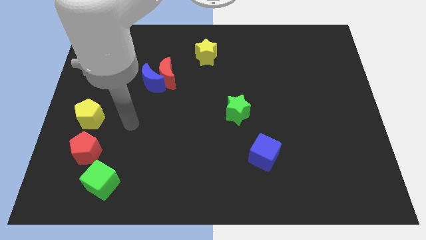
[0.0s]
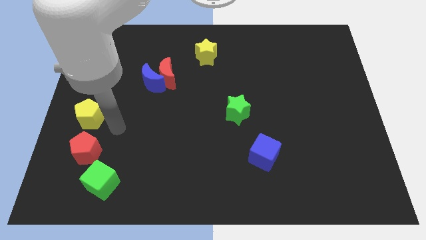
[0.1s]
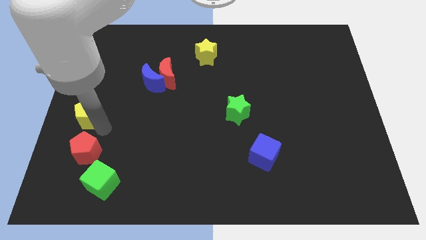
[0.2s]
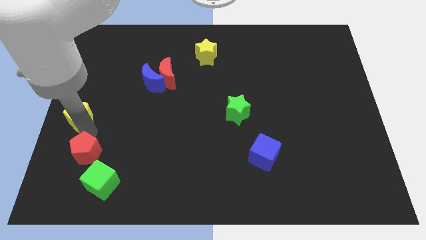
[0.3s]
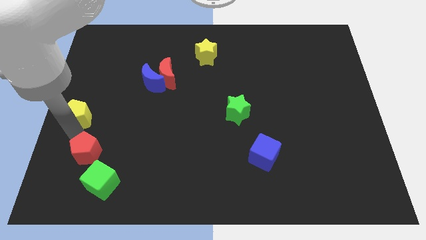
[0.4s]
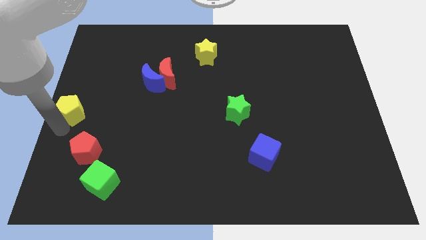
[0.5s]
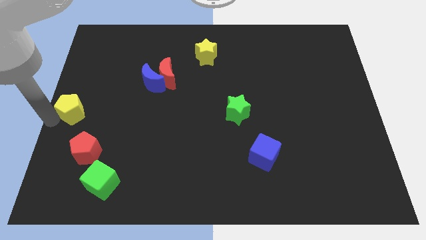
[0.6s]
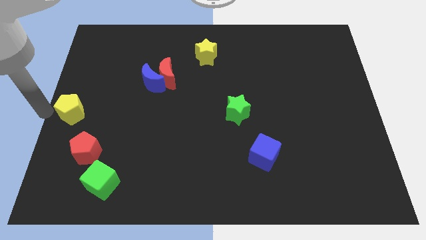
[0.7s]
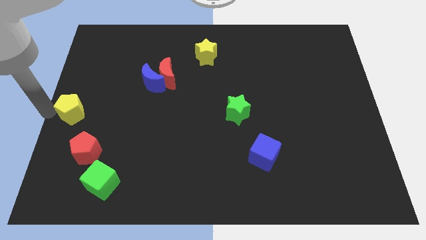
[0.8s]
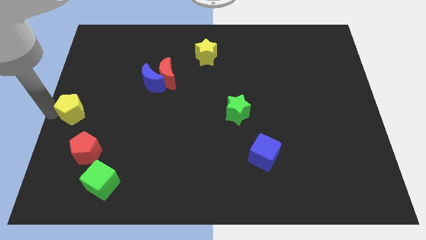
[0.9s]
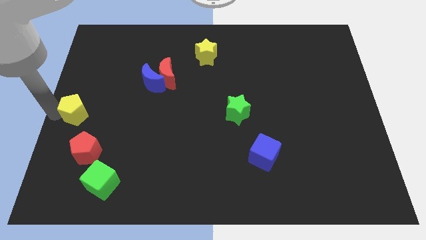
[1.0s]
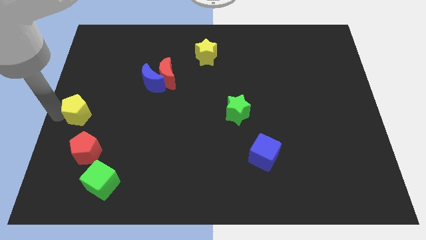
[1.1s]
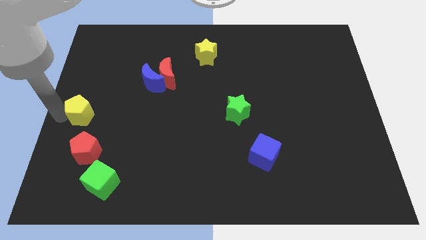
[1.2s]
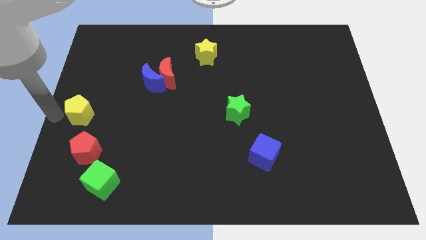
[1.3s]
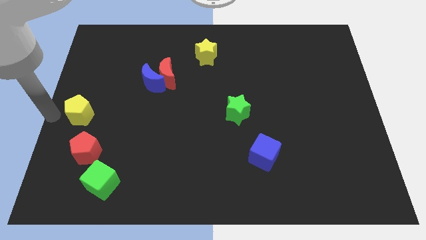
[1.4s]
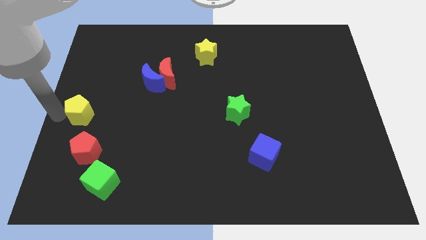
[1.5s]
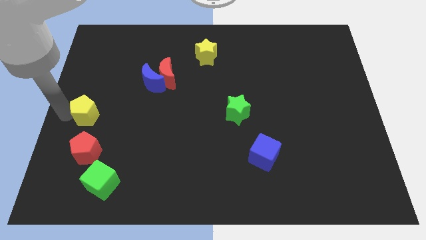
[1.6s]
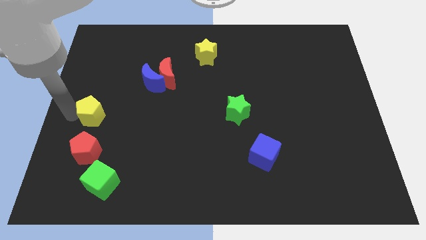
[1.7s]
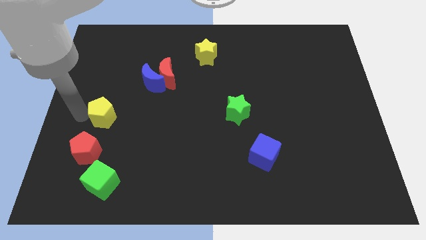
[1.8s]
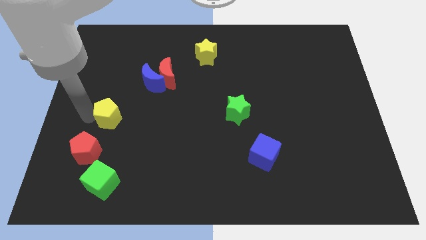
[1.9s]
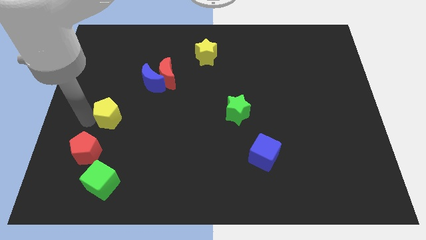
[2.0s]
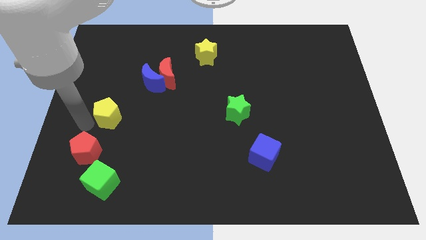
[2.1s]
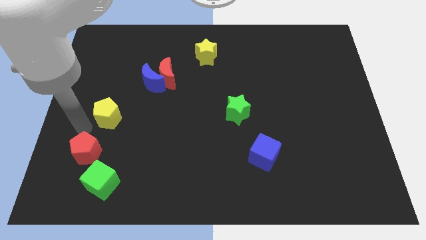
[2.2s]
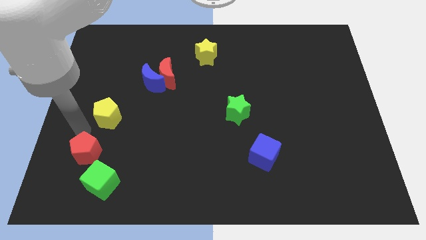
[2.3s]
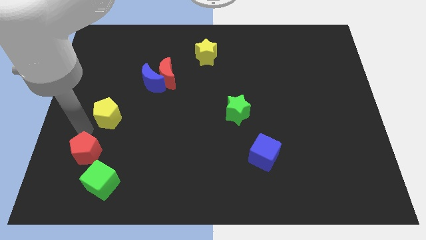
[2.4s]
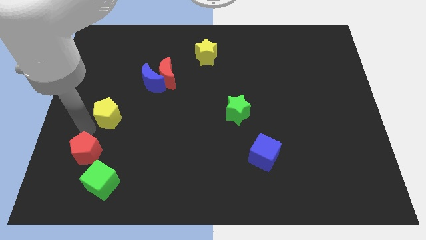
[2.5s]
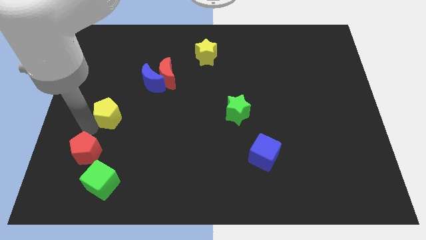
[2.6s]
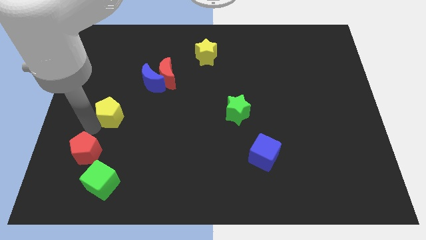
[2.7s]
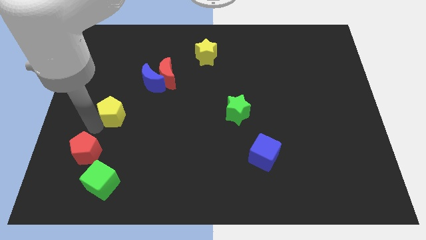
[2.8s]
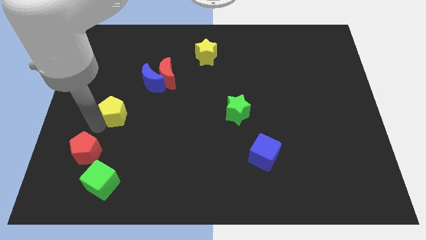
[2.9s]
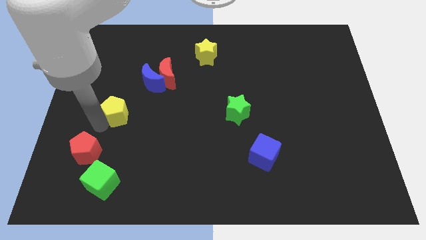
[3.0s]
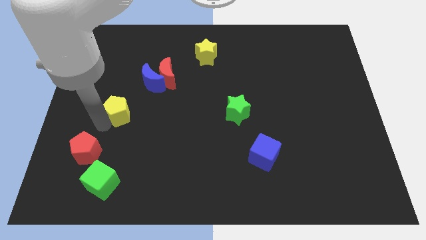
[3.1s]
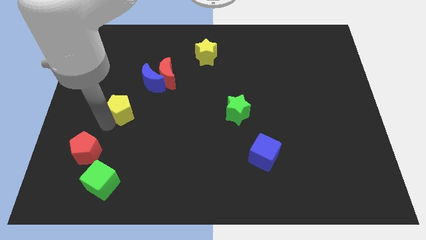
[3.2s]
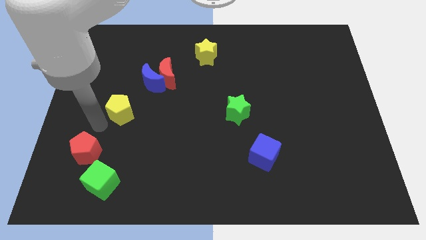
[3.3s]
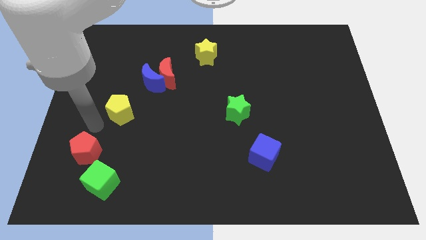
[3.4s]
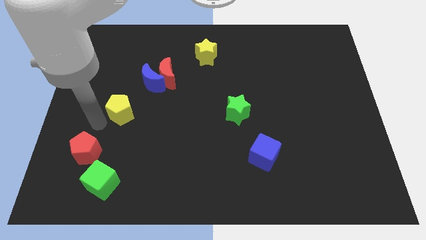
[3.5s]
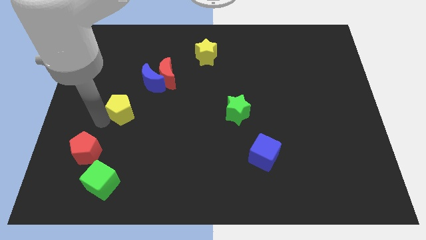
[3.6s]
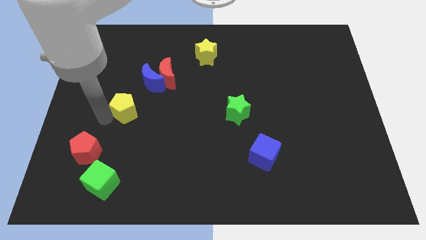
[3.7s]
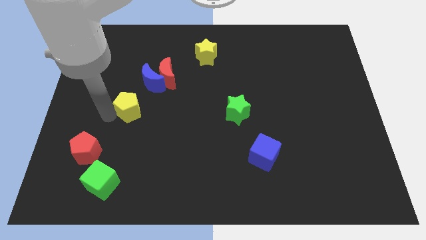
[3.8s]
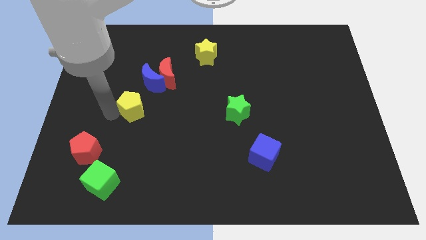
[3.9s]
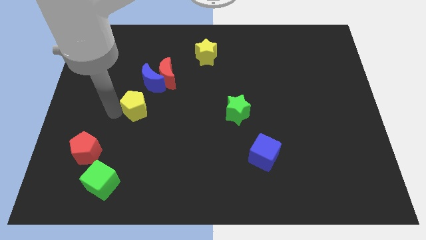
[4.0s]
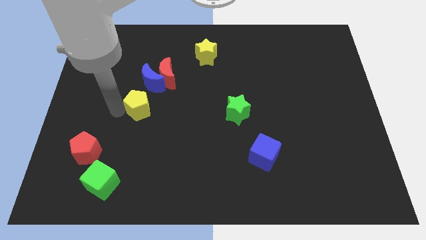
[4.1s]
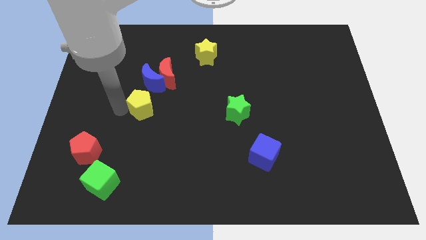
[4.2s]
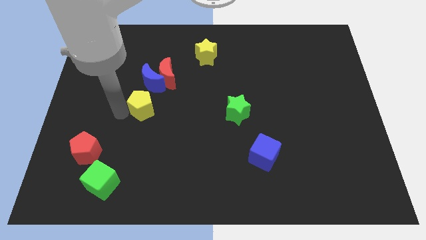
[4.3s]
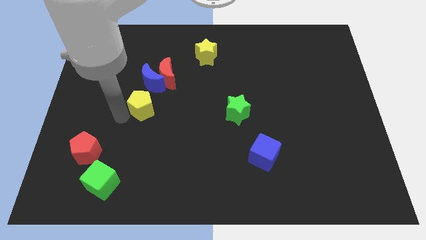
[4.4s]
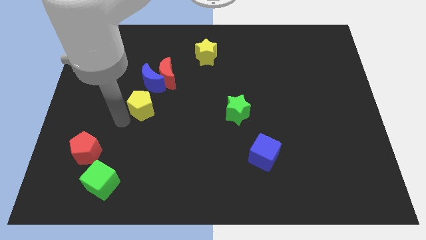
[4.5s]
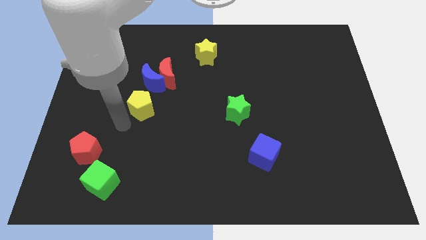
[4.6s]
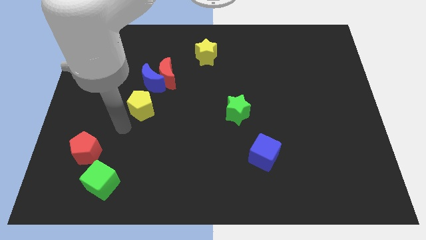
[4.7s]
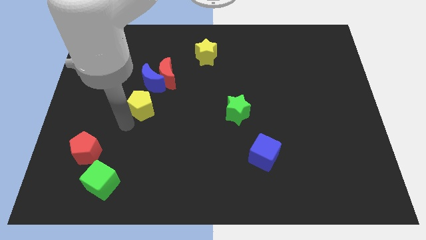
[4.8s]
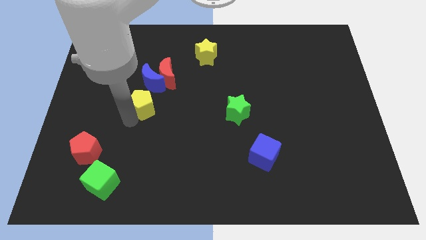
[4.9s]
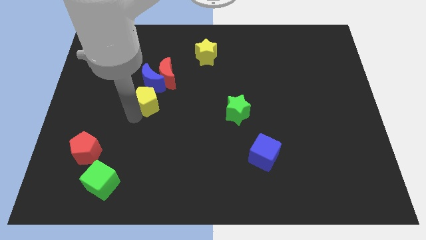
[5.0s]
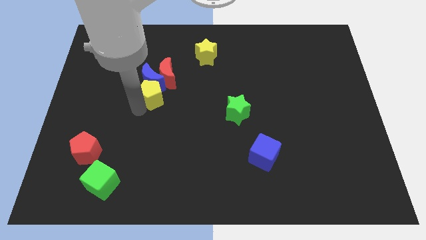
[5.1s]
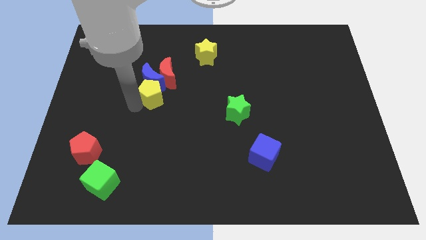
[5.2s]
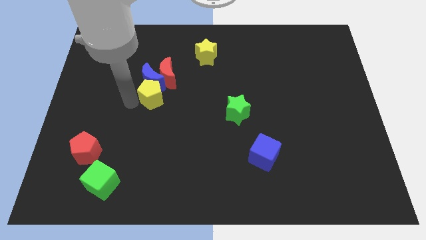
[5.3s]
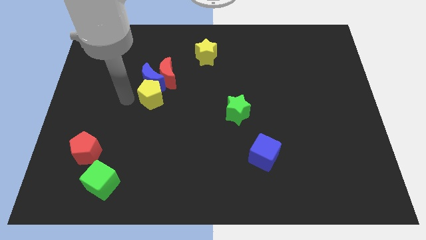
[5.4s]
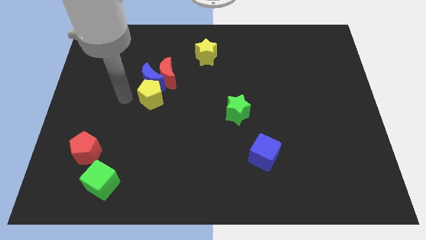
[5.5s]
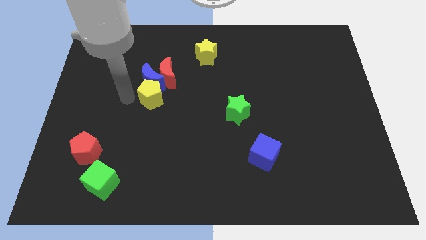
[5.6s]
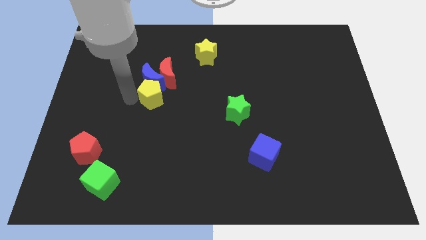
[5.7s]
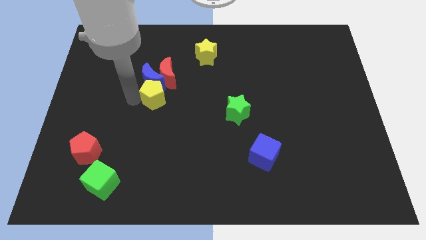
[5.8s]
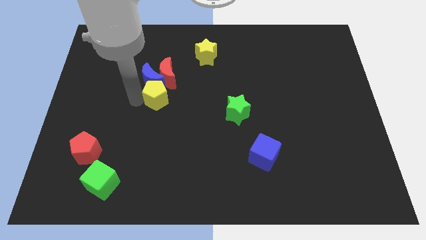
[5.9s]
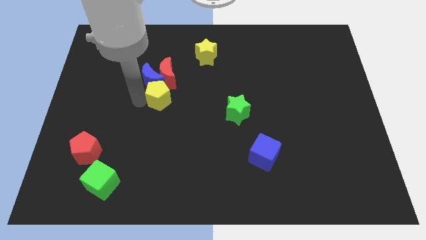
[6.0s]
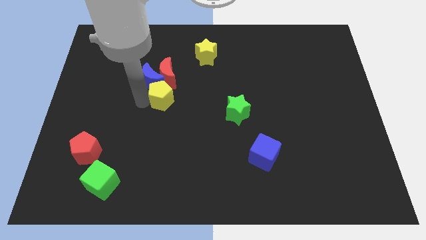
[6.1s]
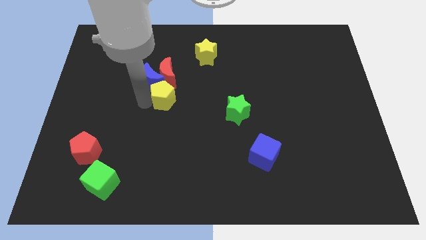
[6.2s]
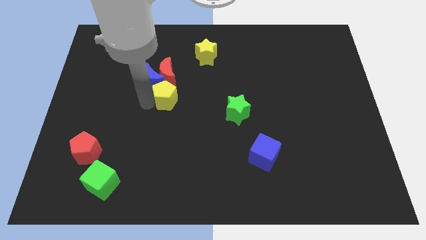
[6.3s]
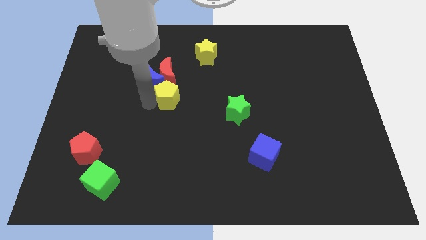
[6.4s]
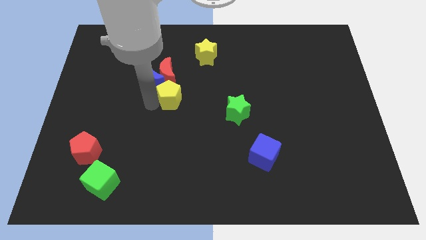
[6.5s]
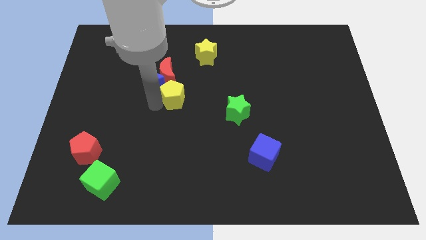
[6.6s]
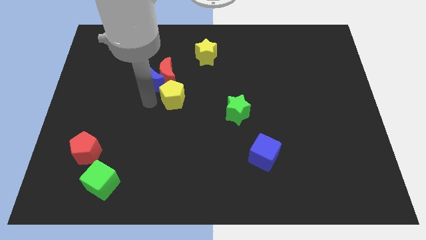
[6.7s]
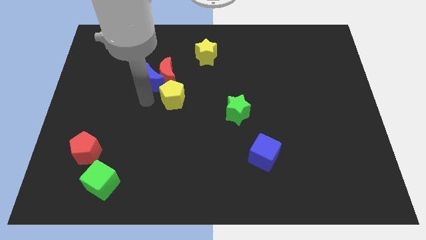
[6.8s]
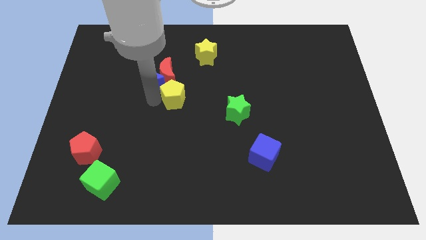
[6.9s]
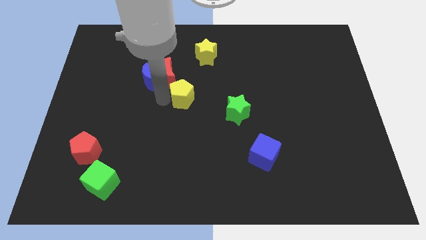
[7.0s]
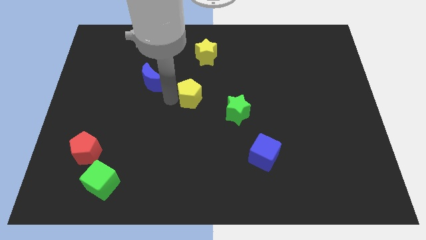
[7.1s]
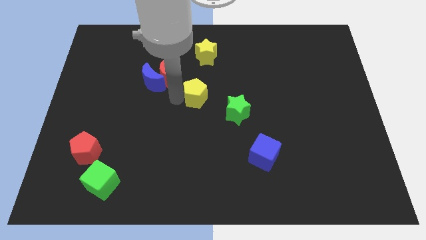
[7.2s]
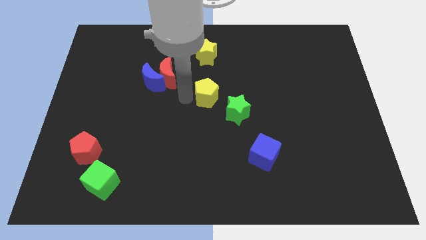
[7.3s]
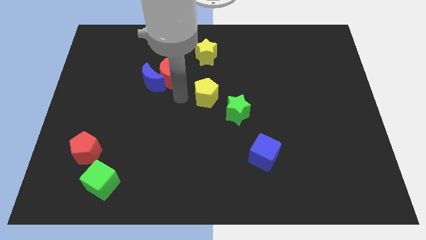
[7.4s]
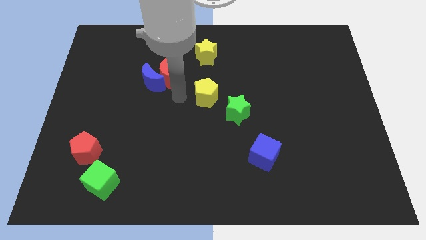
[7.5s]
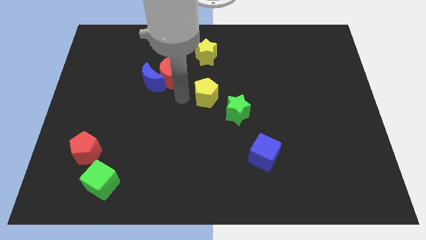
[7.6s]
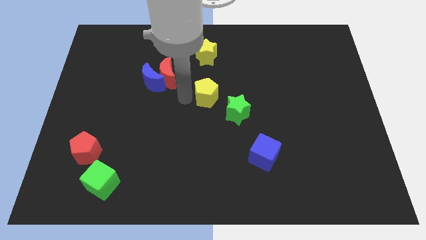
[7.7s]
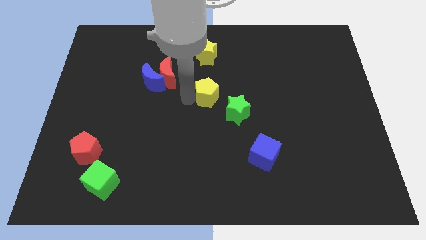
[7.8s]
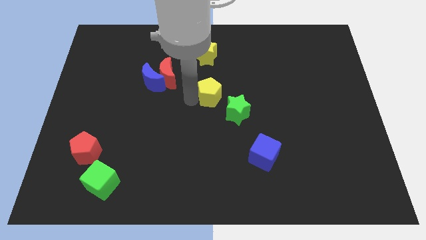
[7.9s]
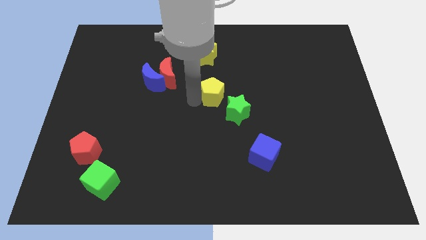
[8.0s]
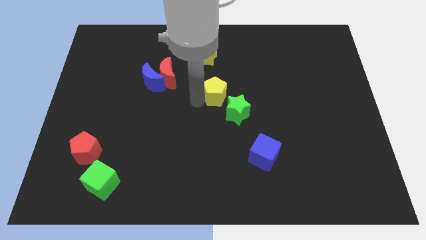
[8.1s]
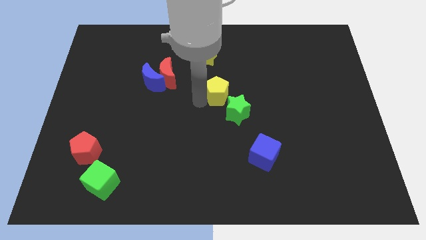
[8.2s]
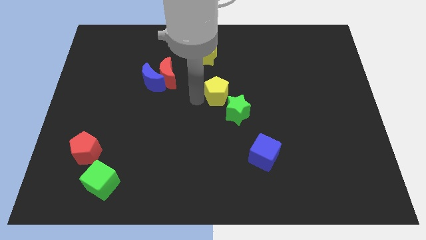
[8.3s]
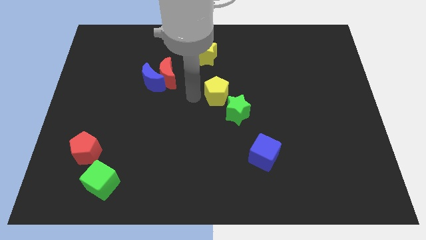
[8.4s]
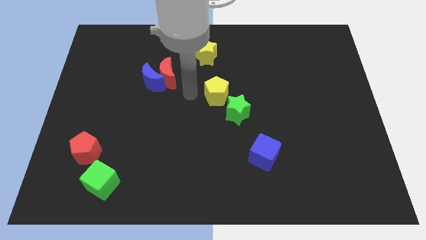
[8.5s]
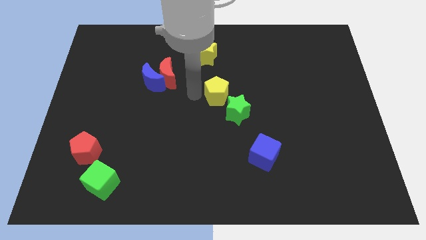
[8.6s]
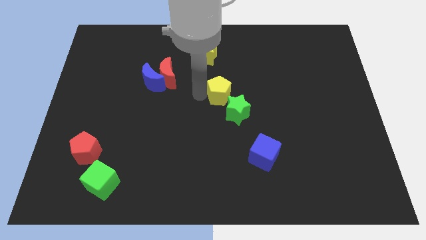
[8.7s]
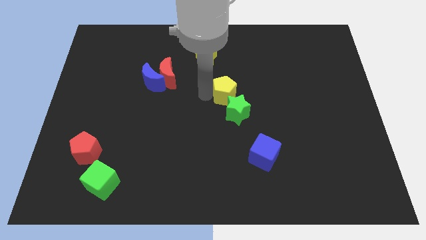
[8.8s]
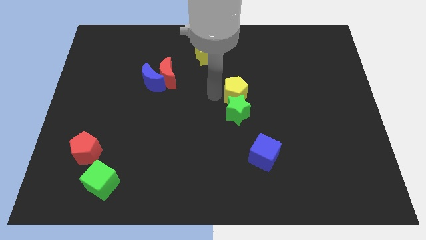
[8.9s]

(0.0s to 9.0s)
slide the yellow pentagon to the top right of the green star
